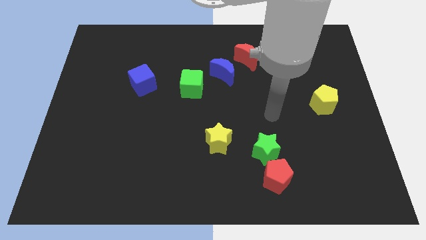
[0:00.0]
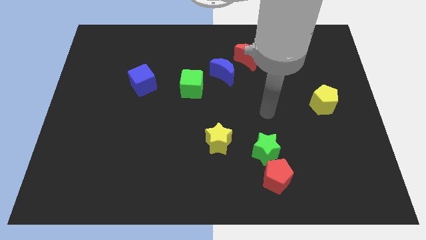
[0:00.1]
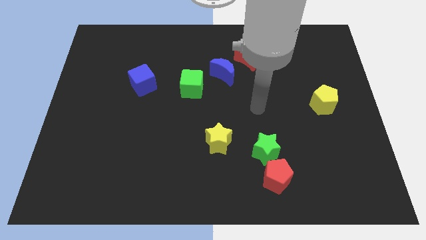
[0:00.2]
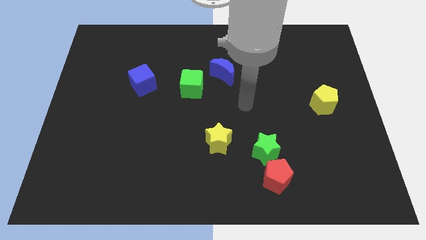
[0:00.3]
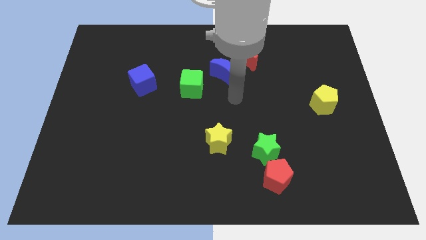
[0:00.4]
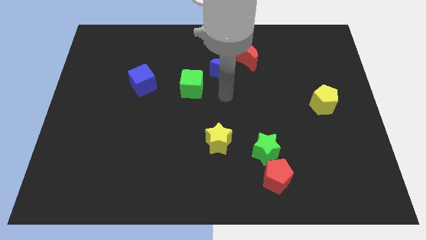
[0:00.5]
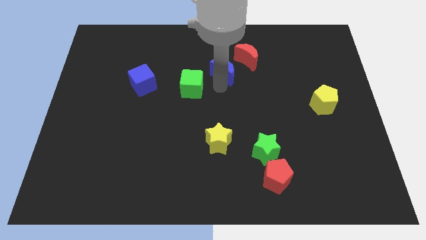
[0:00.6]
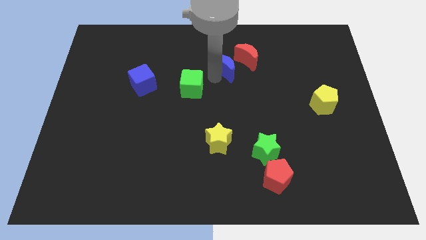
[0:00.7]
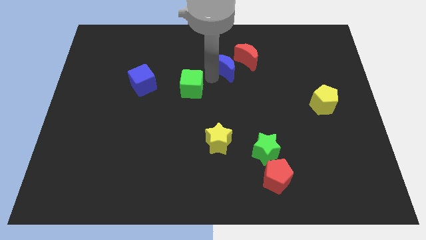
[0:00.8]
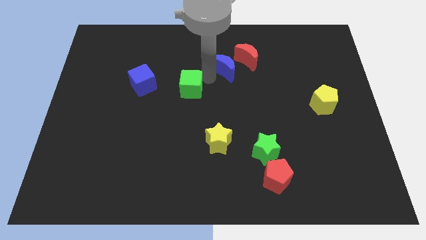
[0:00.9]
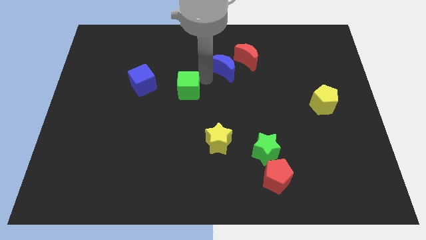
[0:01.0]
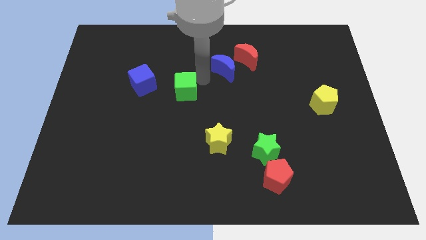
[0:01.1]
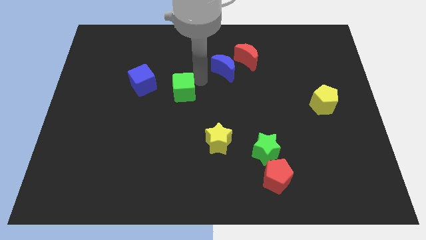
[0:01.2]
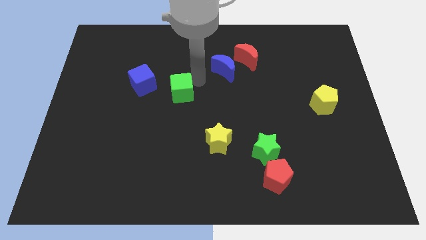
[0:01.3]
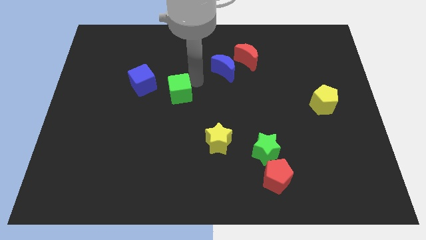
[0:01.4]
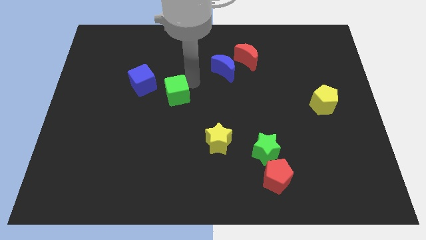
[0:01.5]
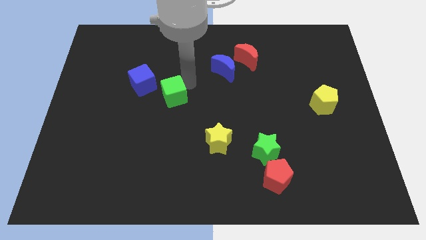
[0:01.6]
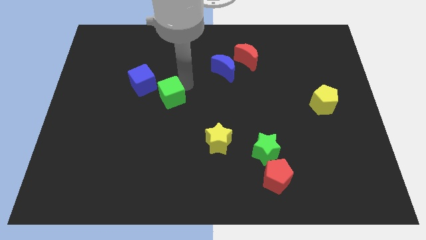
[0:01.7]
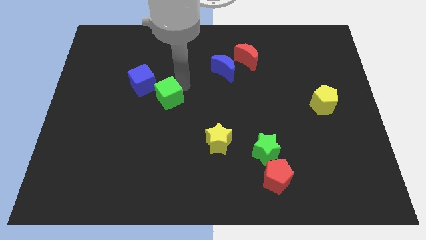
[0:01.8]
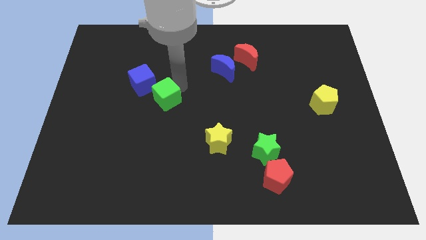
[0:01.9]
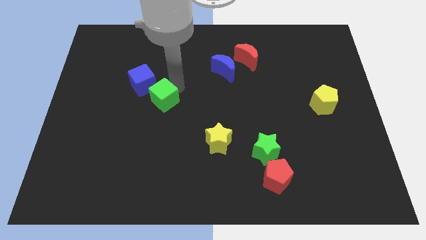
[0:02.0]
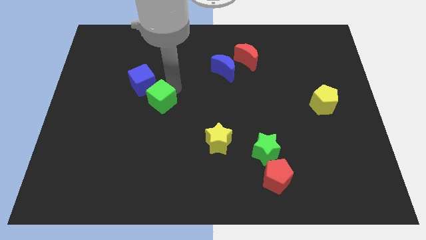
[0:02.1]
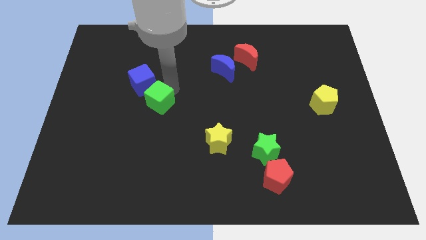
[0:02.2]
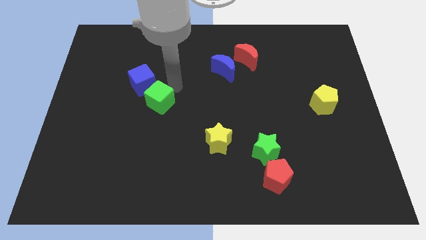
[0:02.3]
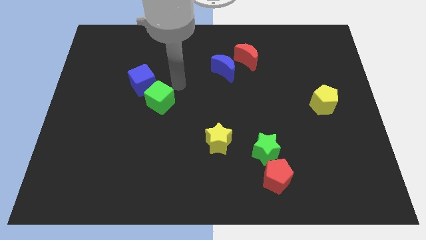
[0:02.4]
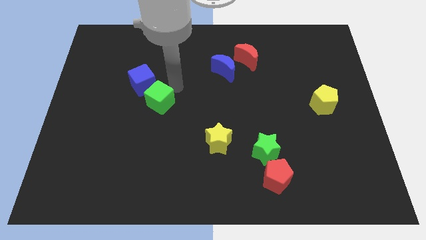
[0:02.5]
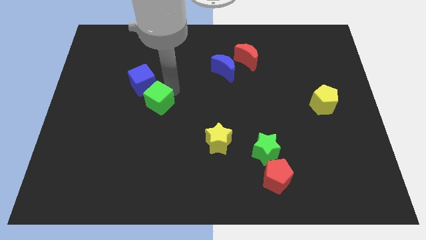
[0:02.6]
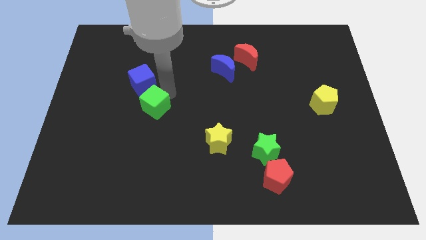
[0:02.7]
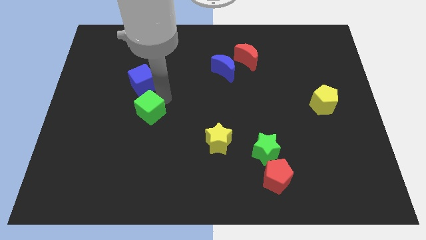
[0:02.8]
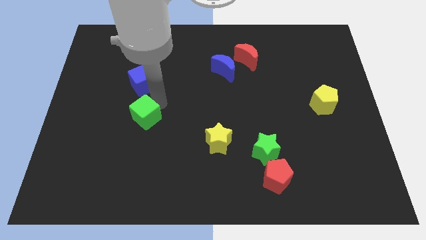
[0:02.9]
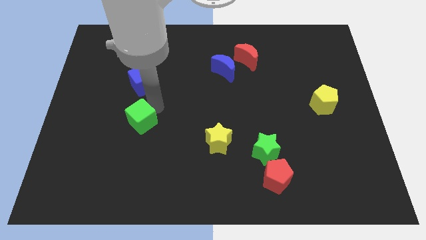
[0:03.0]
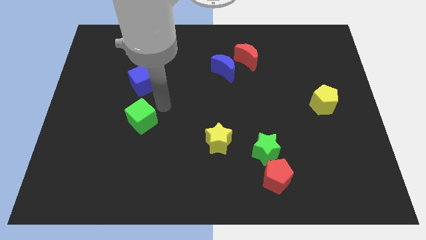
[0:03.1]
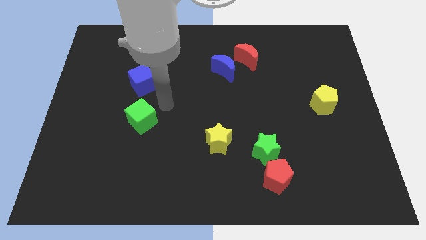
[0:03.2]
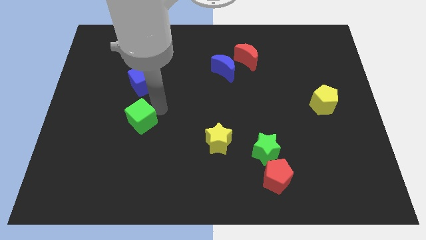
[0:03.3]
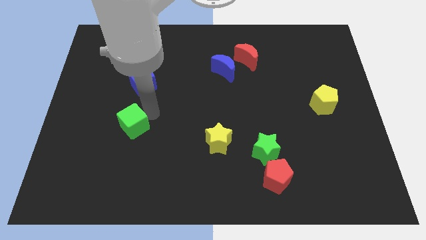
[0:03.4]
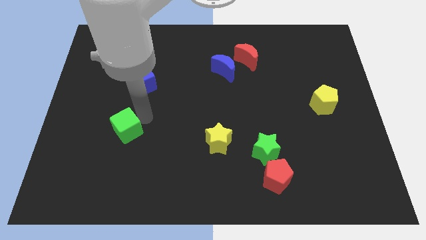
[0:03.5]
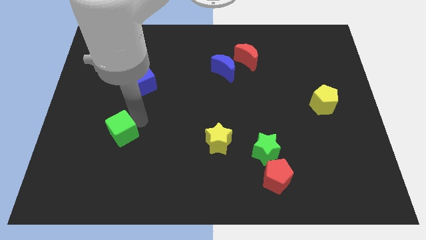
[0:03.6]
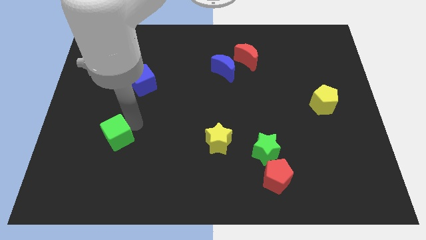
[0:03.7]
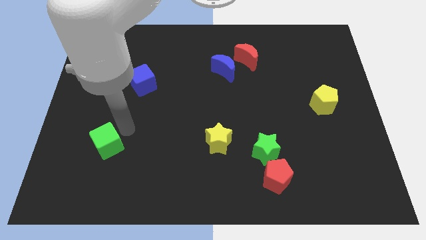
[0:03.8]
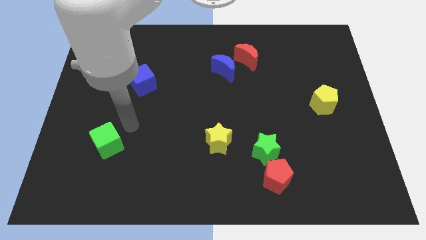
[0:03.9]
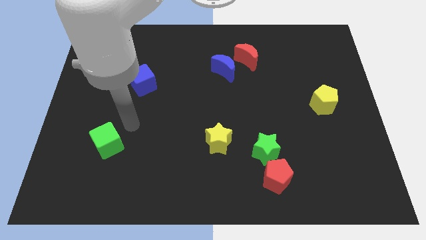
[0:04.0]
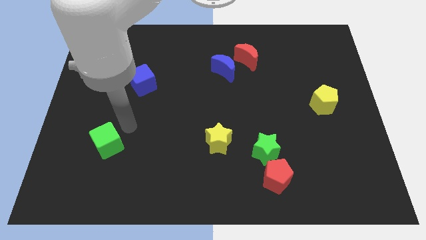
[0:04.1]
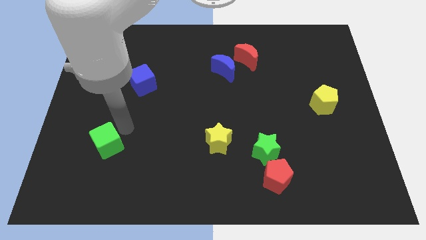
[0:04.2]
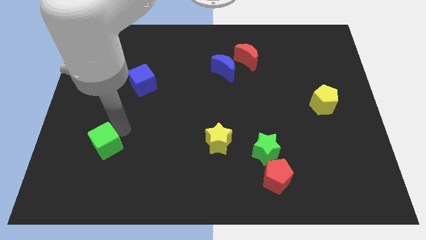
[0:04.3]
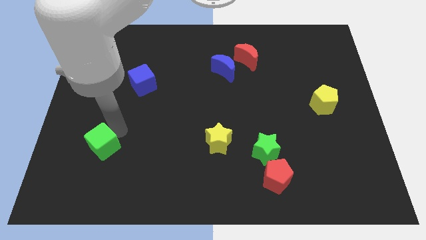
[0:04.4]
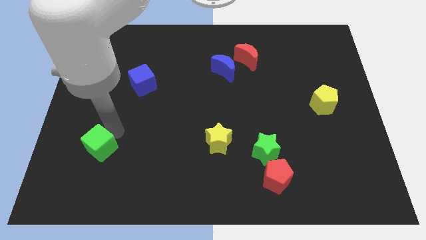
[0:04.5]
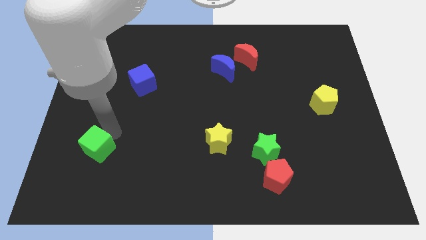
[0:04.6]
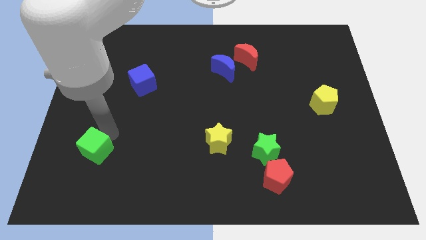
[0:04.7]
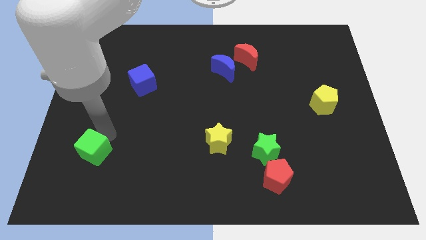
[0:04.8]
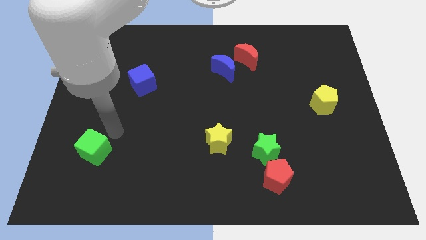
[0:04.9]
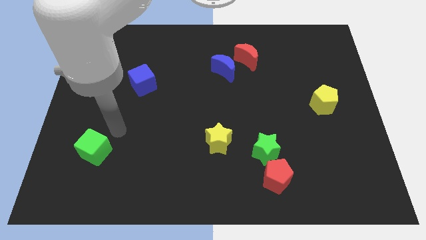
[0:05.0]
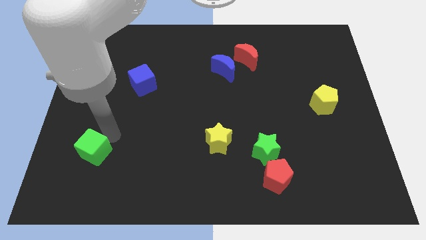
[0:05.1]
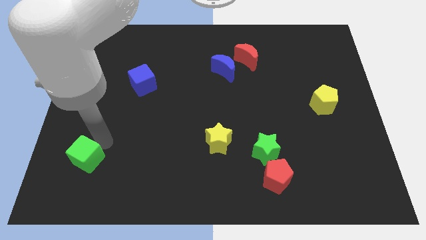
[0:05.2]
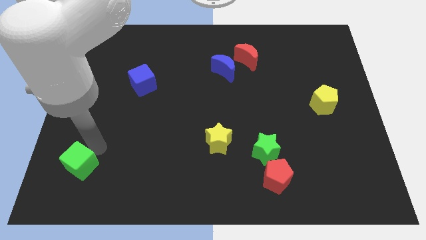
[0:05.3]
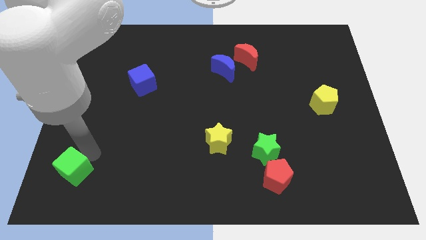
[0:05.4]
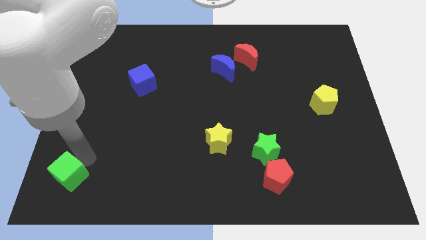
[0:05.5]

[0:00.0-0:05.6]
push the green cube to the lower left corner
